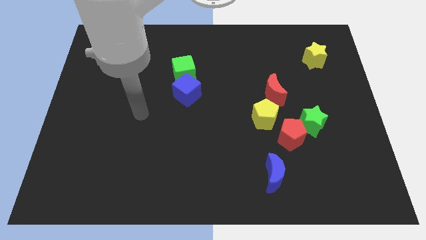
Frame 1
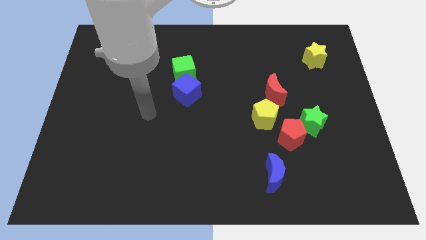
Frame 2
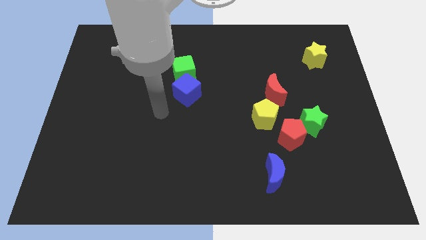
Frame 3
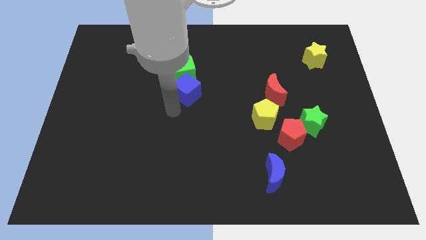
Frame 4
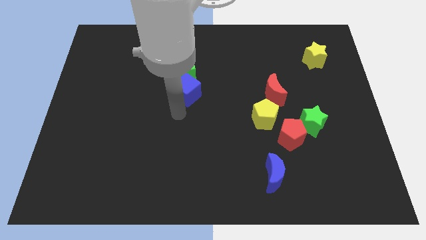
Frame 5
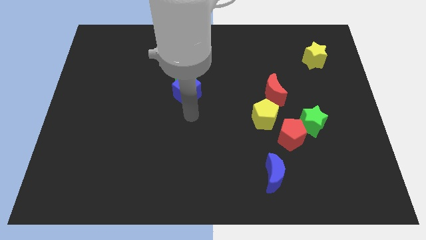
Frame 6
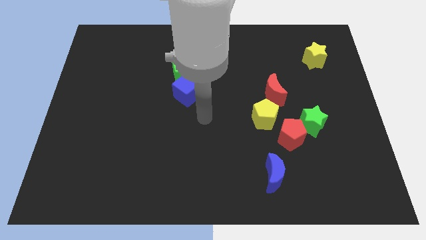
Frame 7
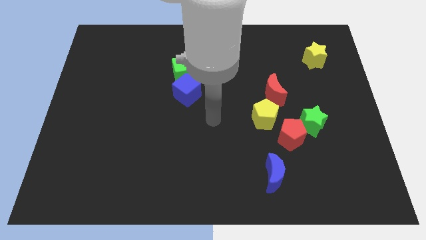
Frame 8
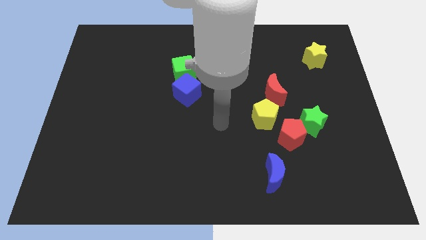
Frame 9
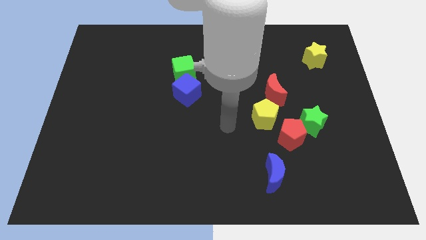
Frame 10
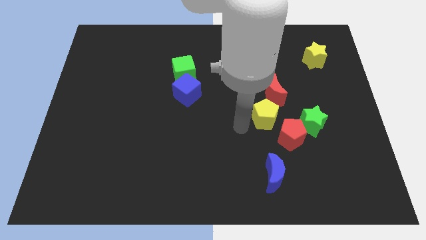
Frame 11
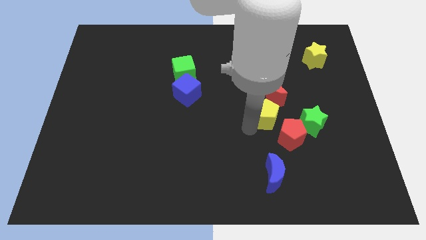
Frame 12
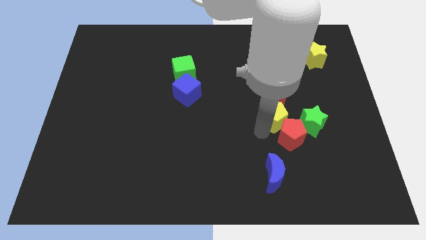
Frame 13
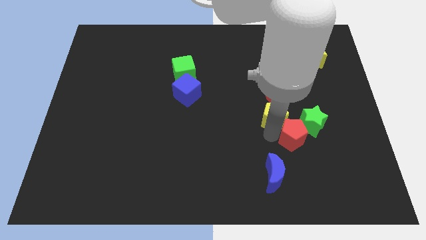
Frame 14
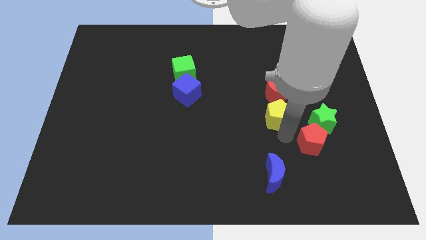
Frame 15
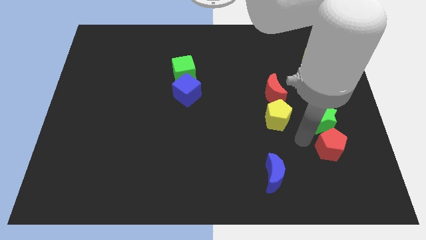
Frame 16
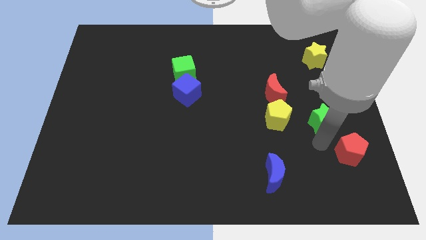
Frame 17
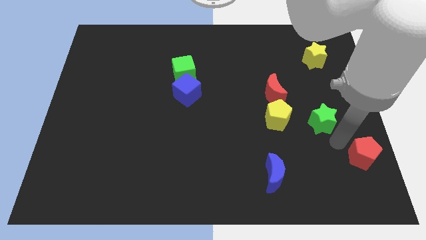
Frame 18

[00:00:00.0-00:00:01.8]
move the green star away from the red pentagon

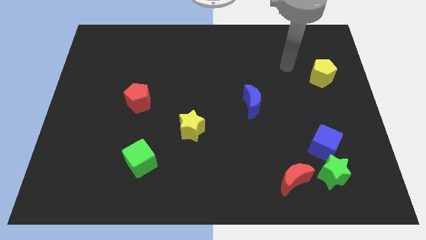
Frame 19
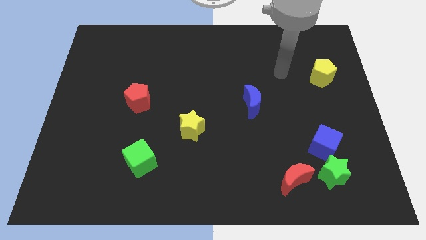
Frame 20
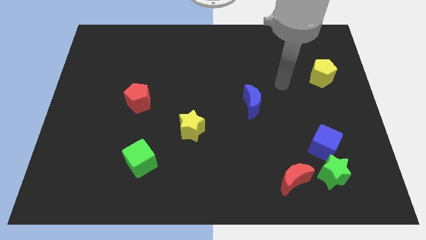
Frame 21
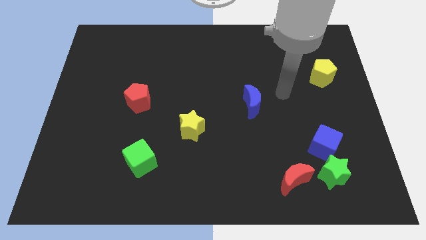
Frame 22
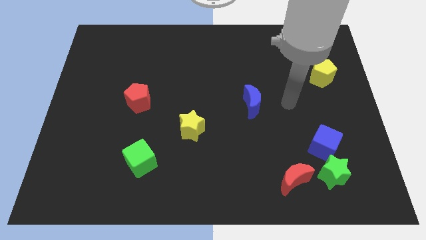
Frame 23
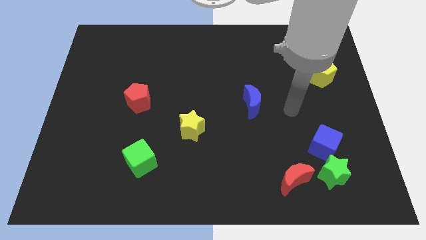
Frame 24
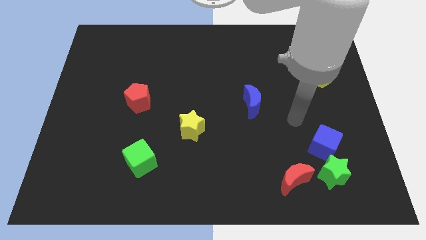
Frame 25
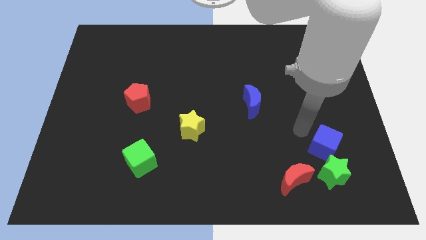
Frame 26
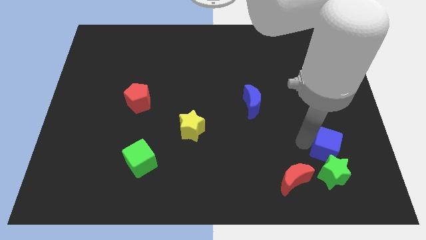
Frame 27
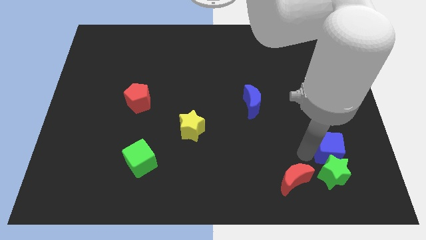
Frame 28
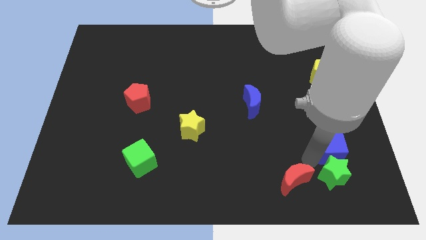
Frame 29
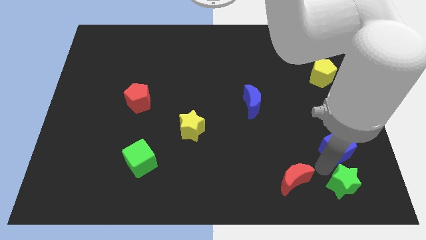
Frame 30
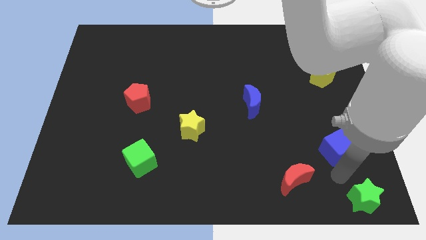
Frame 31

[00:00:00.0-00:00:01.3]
move the blue cube away from the green star

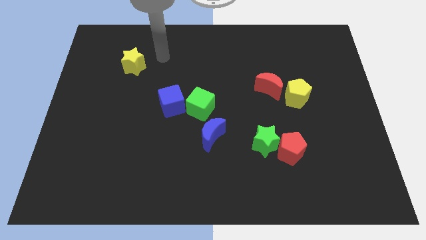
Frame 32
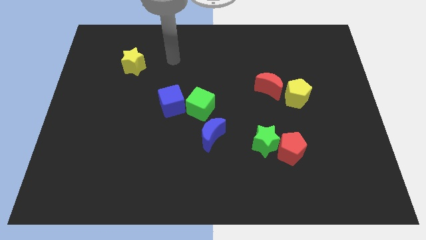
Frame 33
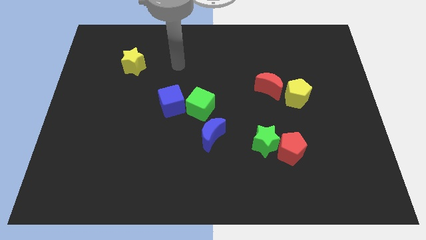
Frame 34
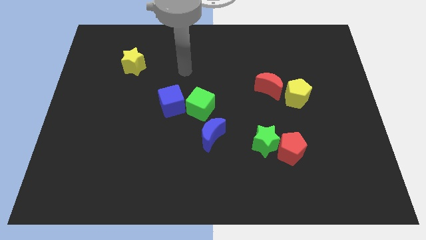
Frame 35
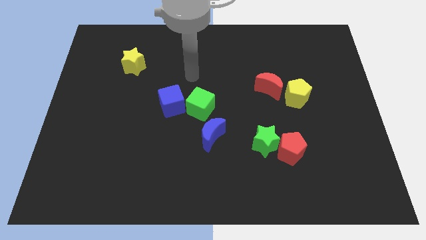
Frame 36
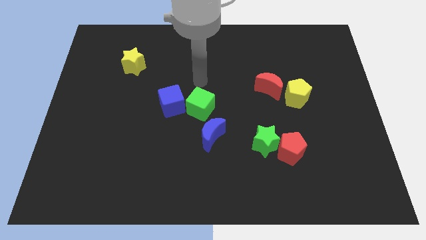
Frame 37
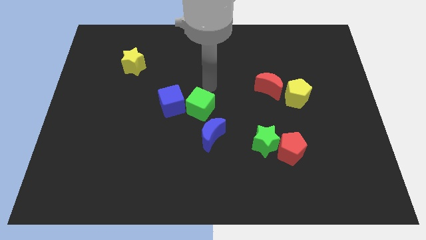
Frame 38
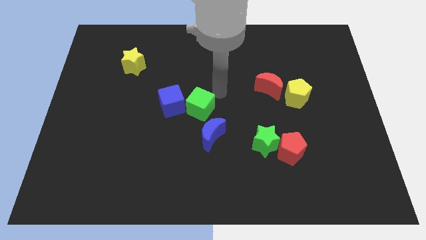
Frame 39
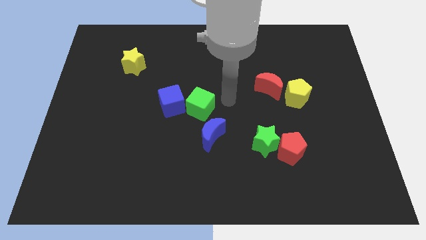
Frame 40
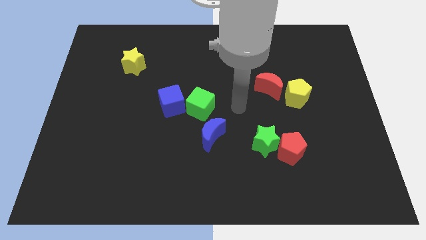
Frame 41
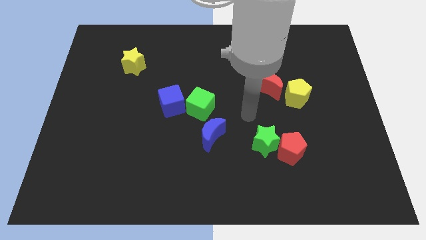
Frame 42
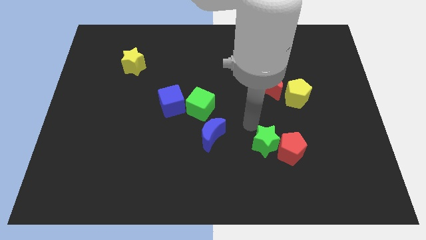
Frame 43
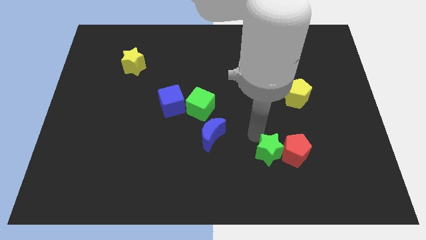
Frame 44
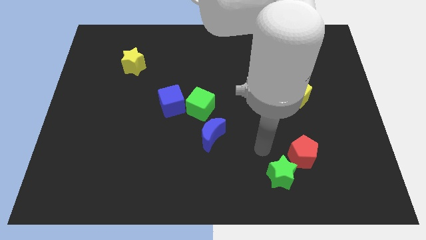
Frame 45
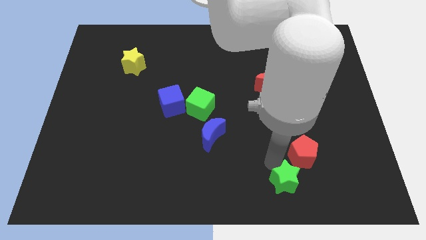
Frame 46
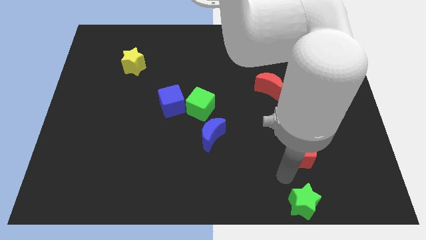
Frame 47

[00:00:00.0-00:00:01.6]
pull the red pentagon apart from the green star

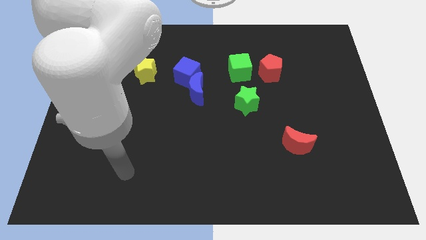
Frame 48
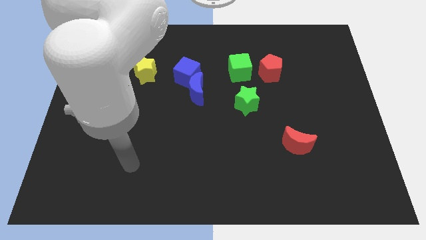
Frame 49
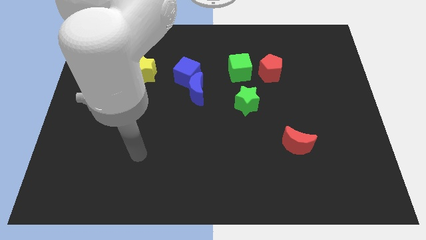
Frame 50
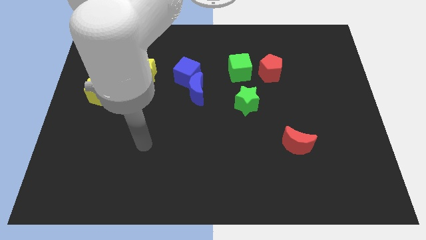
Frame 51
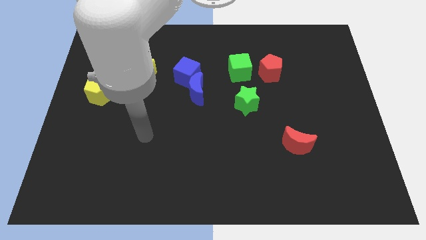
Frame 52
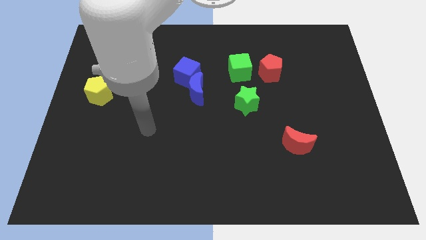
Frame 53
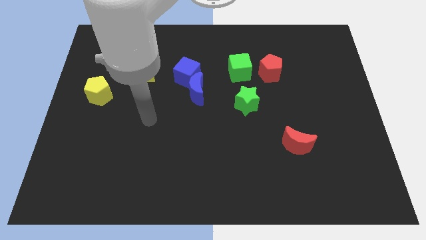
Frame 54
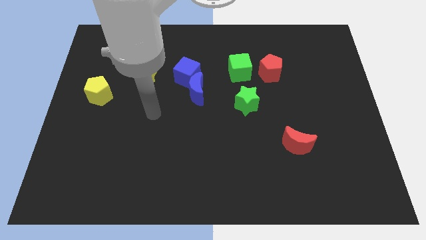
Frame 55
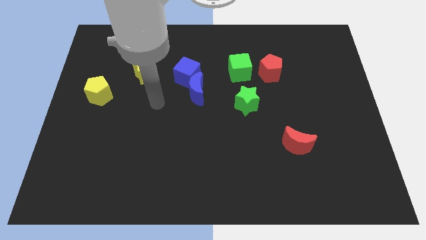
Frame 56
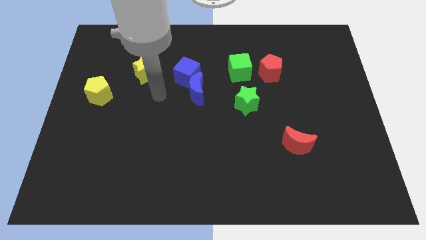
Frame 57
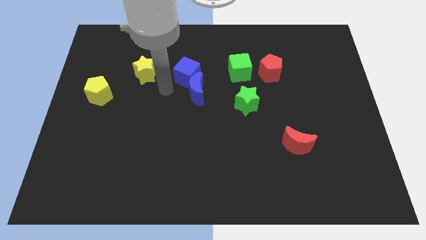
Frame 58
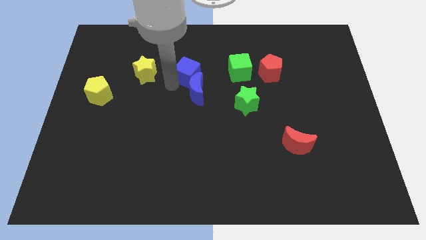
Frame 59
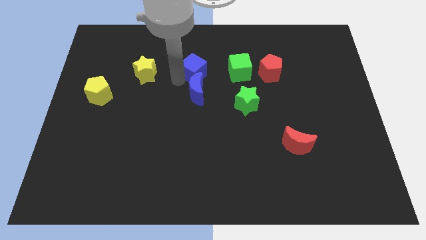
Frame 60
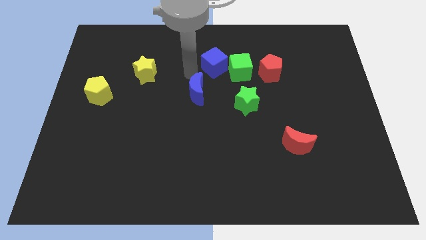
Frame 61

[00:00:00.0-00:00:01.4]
separate the blue moon from the blue cube

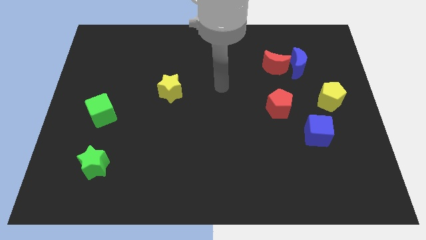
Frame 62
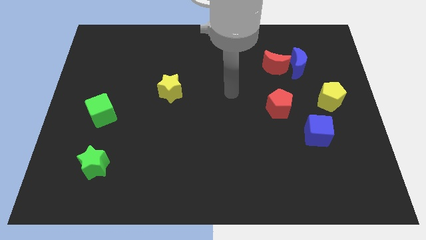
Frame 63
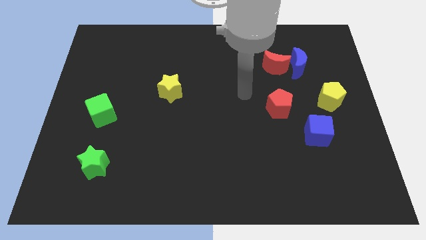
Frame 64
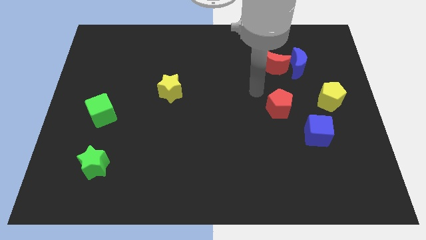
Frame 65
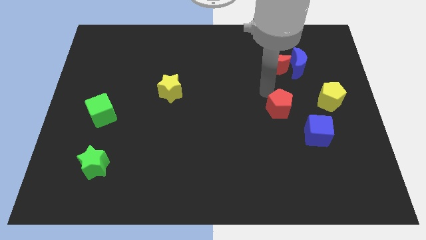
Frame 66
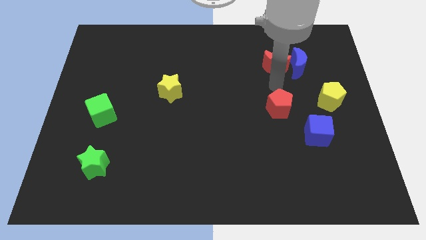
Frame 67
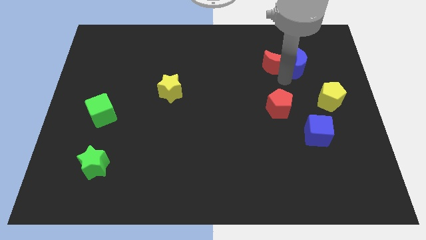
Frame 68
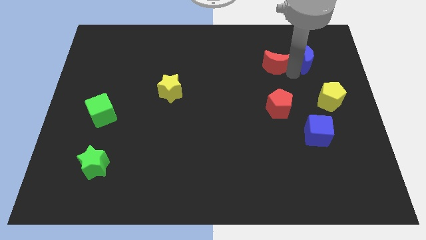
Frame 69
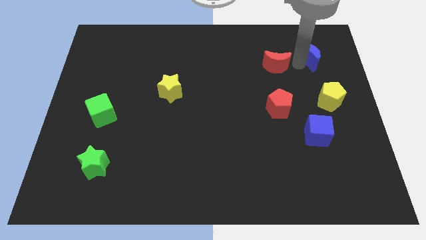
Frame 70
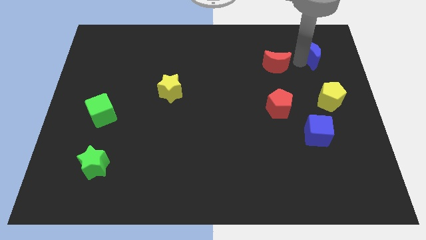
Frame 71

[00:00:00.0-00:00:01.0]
pull the red moon apart from the blue moon

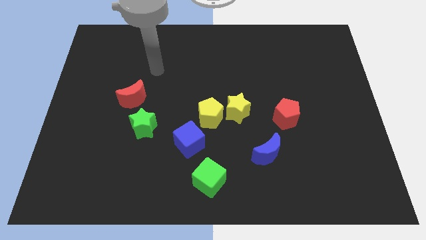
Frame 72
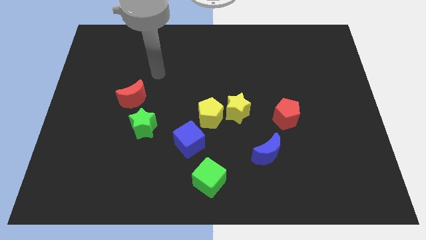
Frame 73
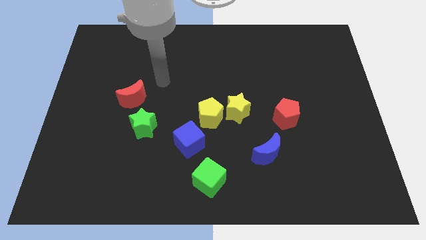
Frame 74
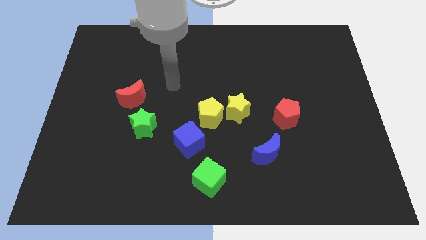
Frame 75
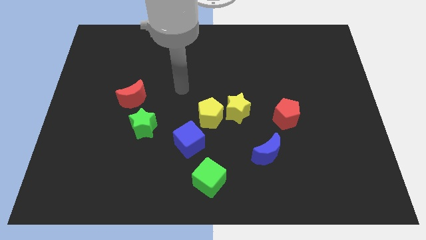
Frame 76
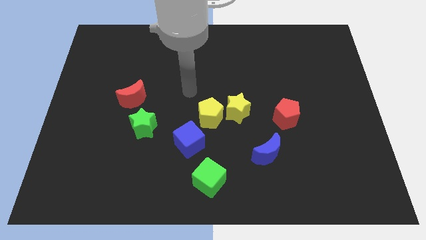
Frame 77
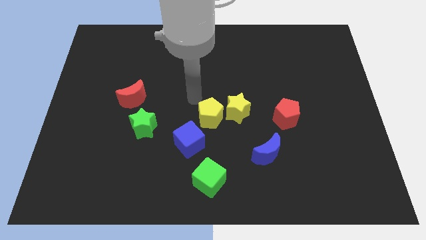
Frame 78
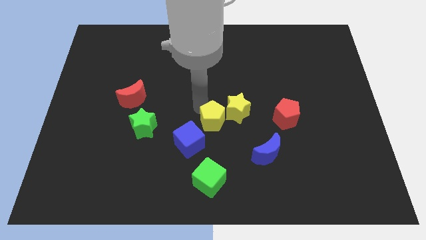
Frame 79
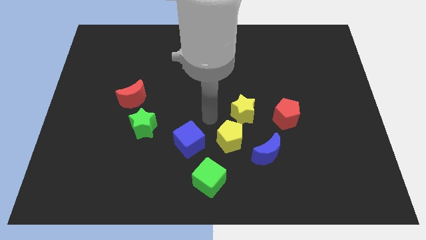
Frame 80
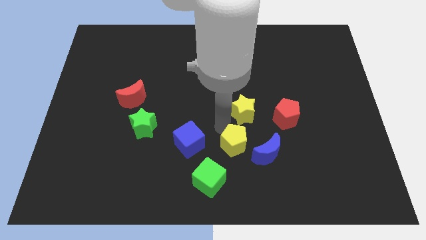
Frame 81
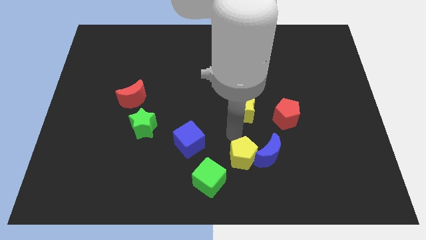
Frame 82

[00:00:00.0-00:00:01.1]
move the yellow star away from the yellow pentagon

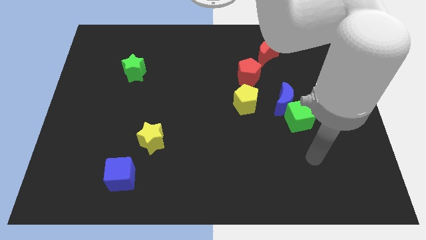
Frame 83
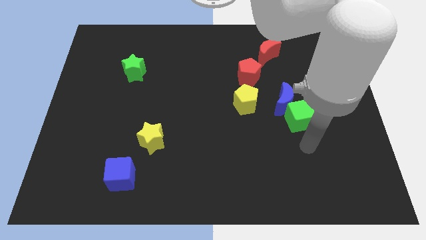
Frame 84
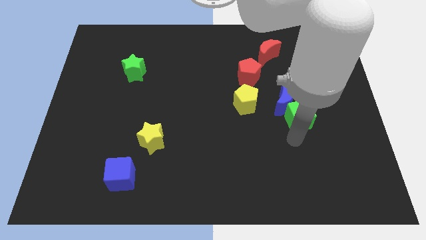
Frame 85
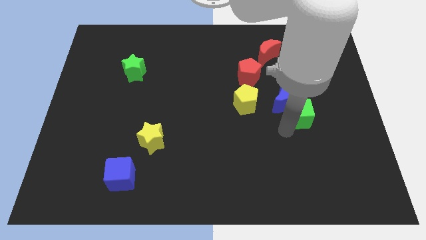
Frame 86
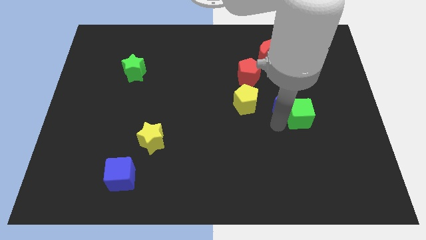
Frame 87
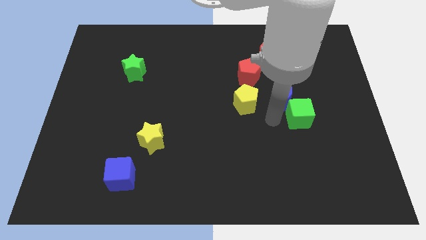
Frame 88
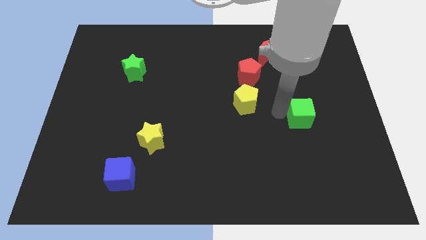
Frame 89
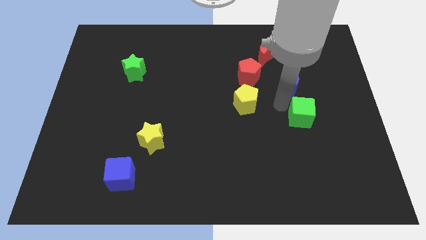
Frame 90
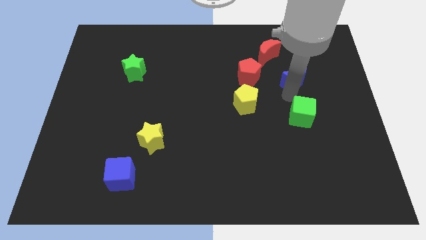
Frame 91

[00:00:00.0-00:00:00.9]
pull the green cube apart from the blue moon

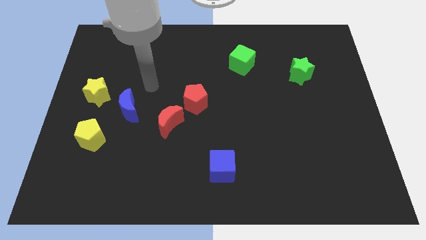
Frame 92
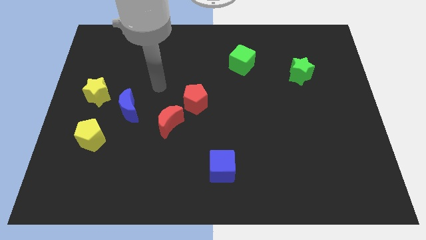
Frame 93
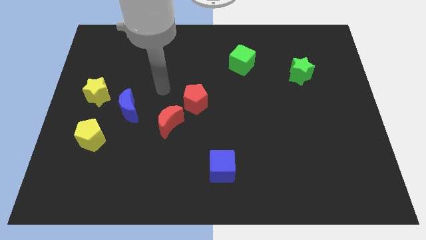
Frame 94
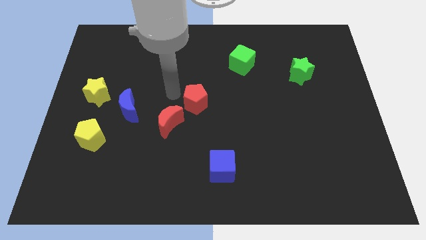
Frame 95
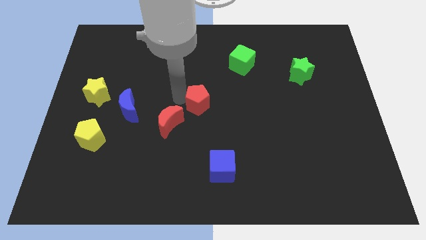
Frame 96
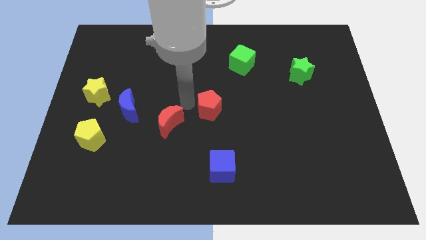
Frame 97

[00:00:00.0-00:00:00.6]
separate the red moon from the red pentagon
